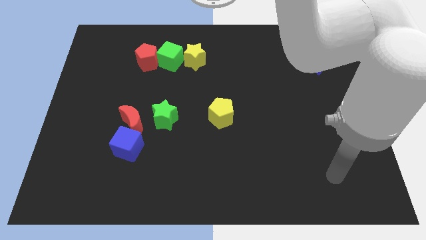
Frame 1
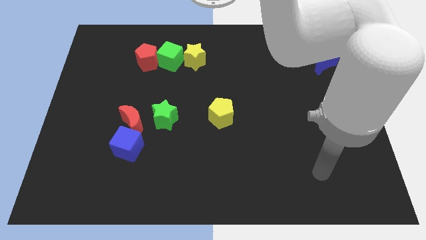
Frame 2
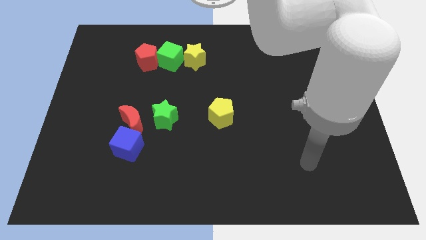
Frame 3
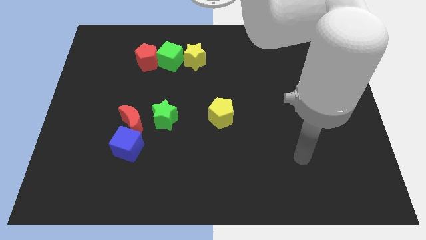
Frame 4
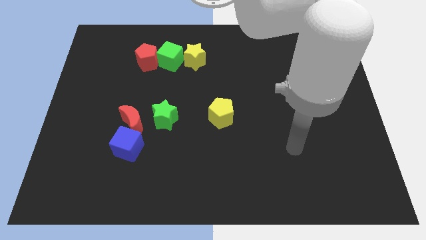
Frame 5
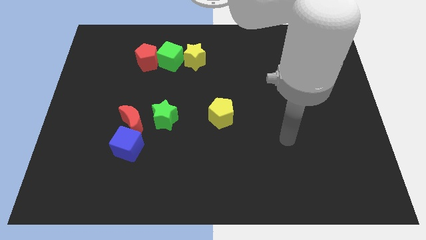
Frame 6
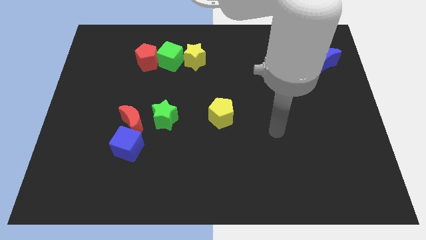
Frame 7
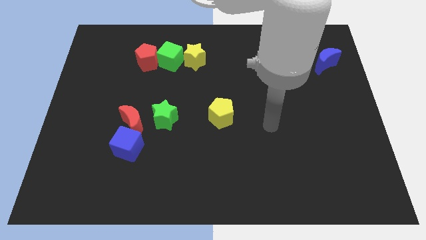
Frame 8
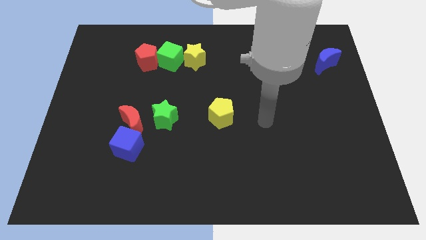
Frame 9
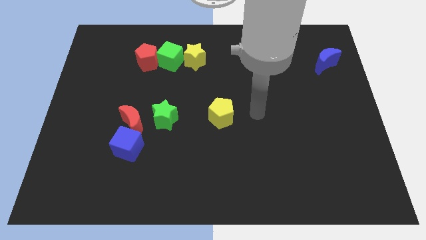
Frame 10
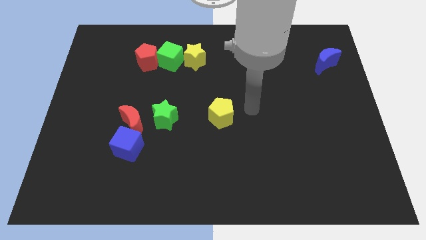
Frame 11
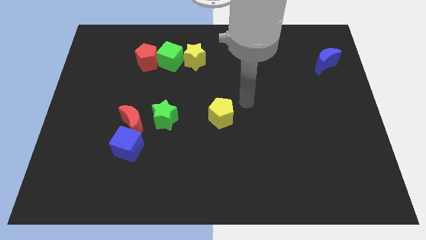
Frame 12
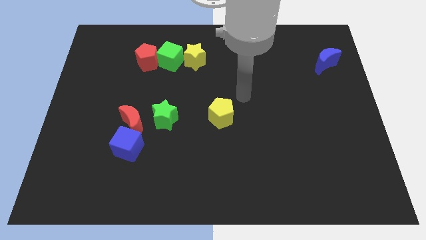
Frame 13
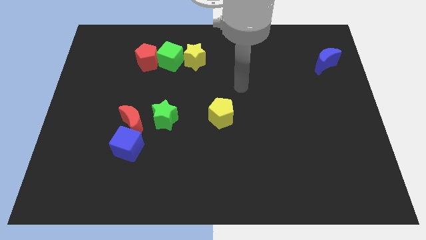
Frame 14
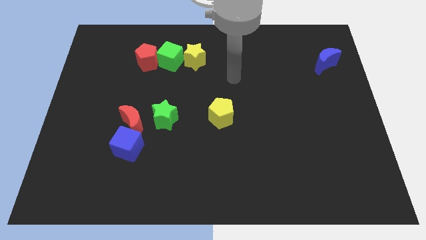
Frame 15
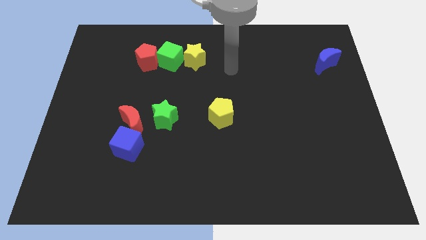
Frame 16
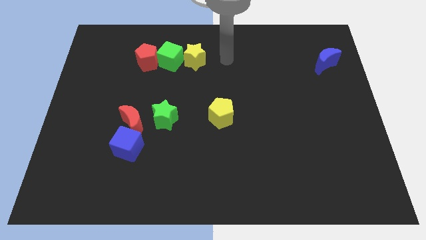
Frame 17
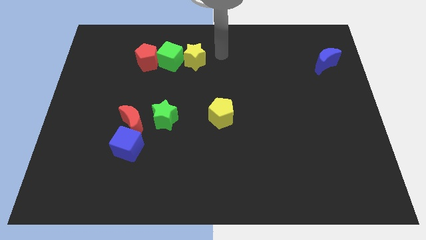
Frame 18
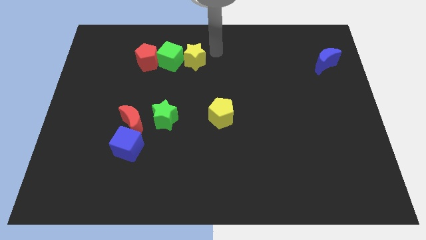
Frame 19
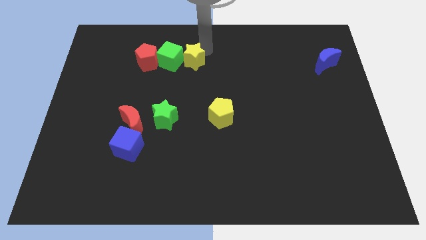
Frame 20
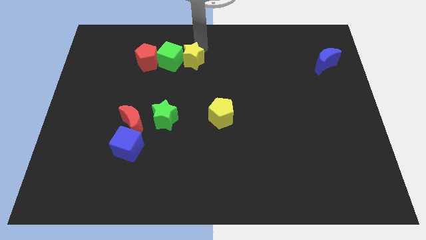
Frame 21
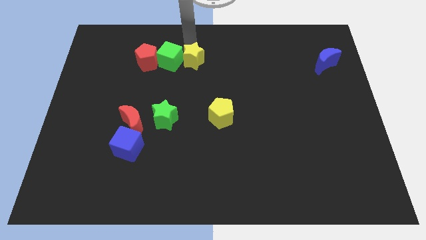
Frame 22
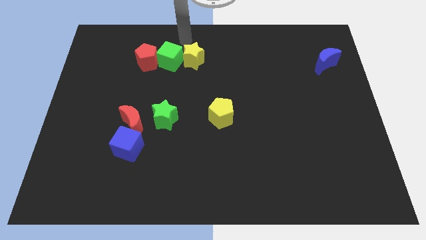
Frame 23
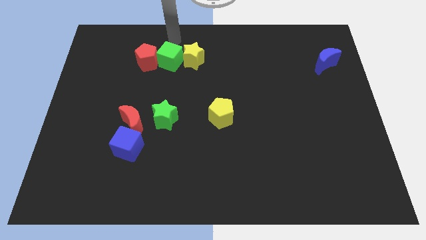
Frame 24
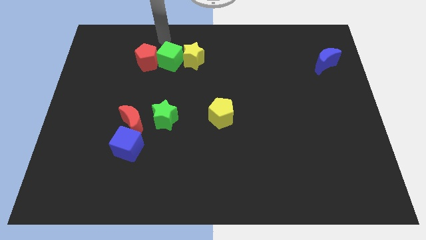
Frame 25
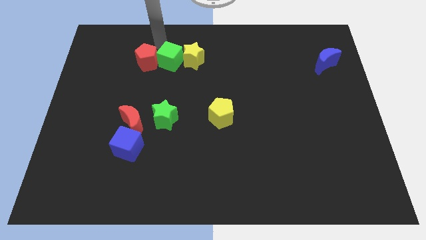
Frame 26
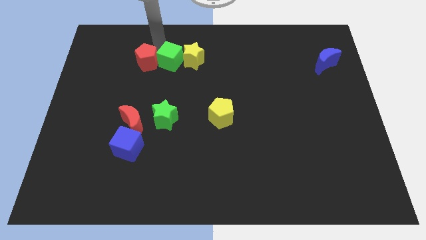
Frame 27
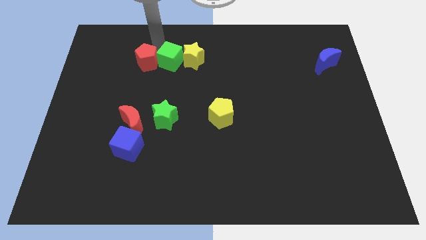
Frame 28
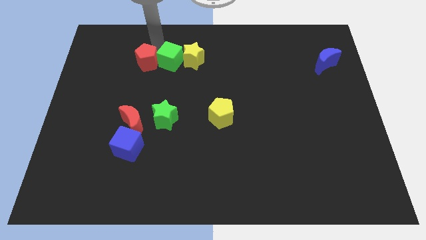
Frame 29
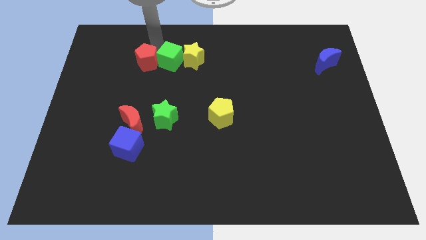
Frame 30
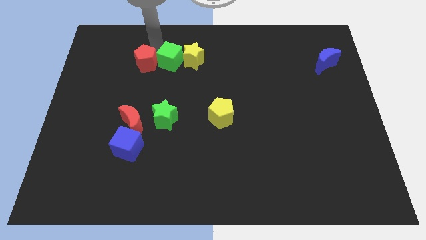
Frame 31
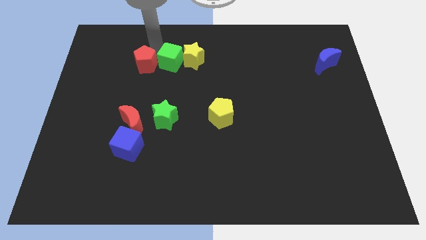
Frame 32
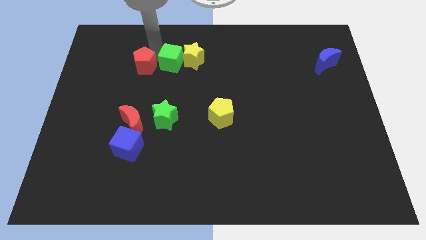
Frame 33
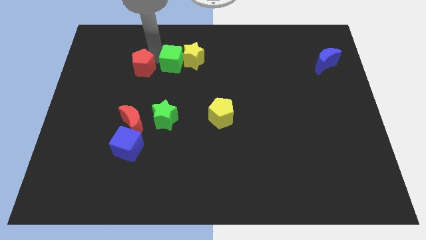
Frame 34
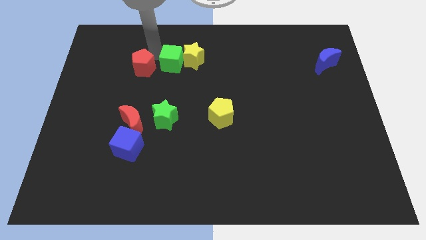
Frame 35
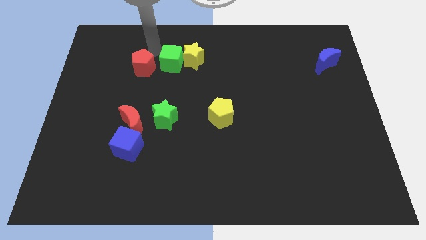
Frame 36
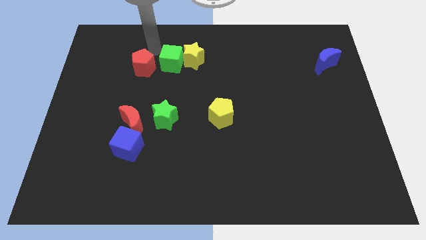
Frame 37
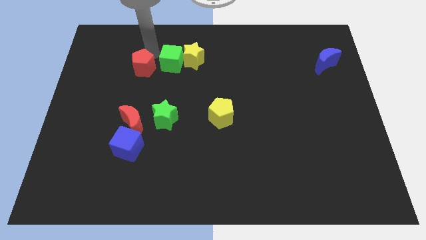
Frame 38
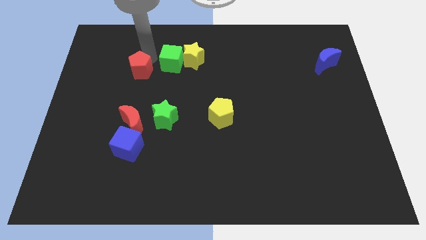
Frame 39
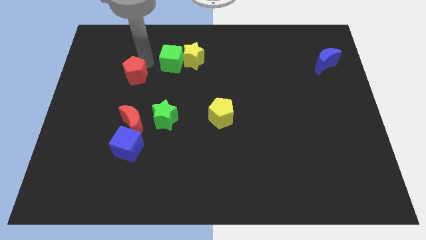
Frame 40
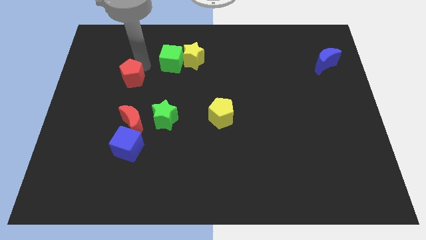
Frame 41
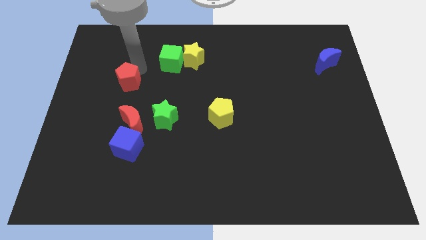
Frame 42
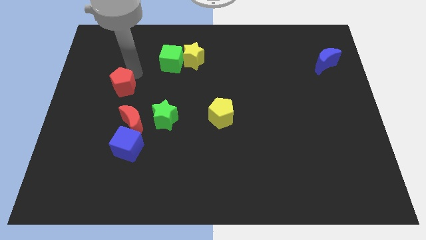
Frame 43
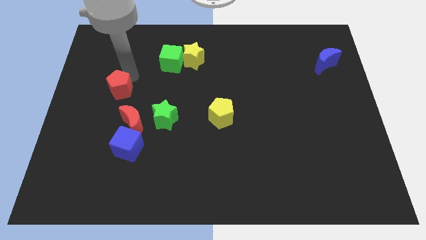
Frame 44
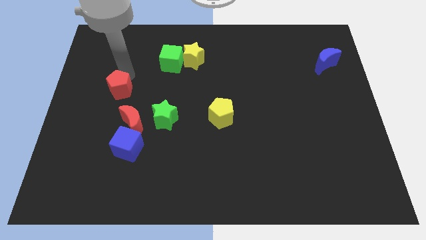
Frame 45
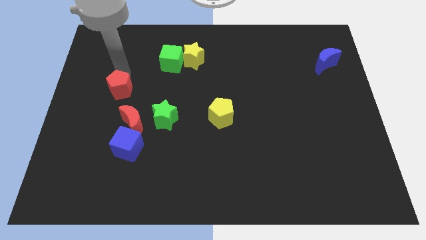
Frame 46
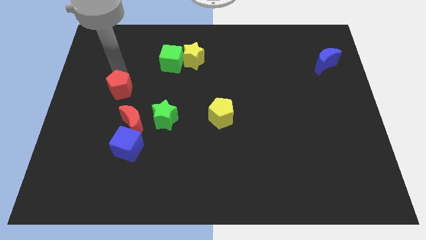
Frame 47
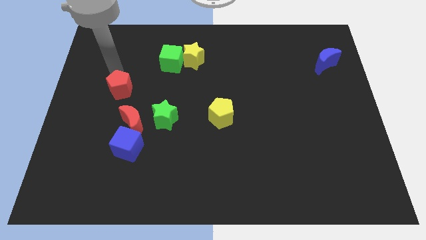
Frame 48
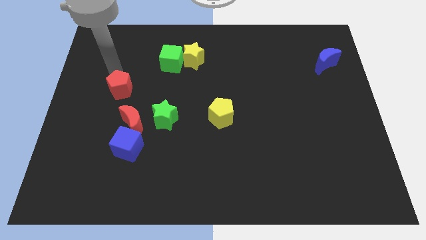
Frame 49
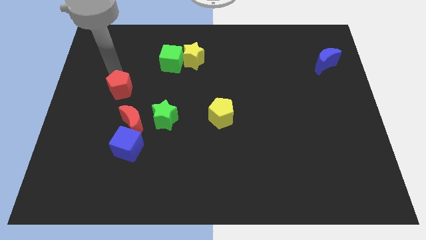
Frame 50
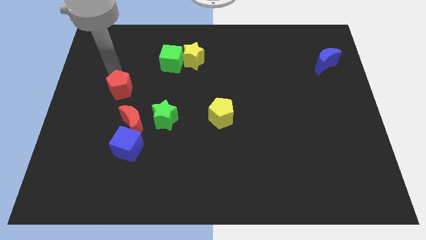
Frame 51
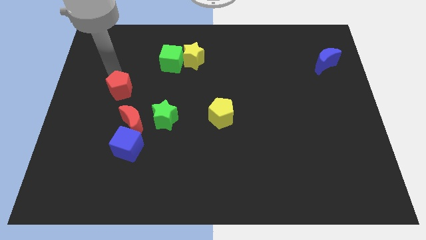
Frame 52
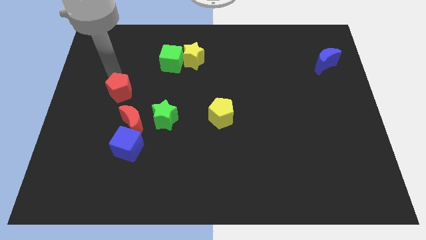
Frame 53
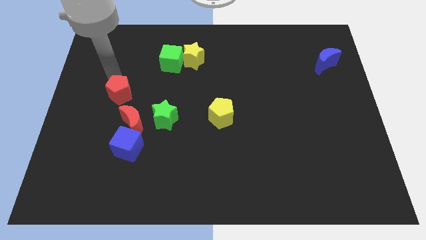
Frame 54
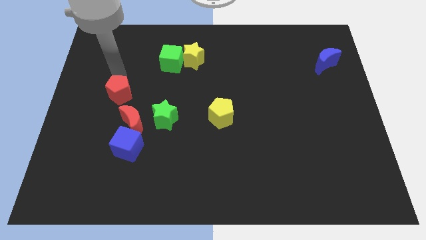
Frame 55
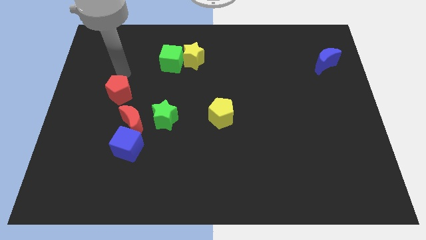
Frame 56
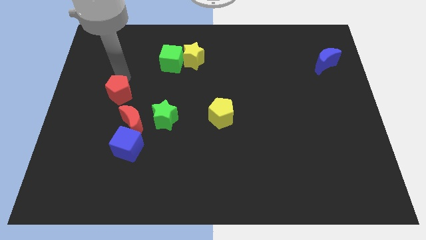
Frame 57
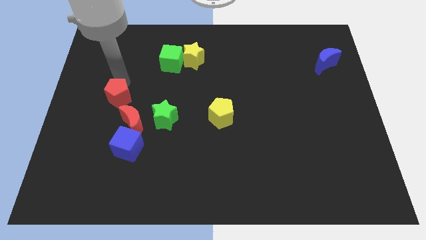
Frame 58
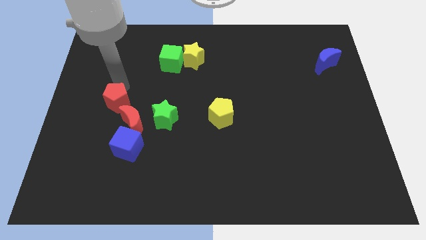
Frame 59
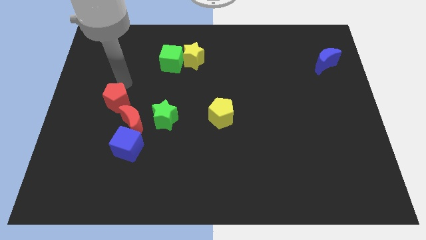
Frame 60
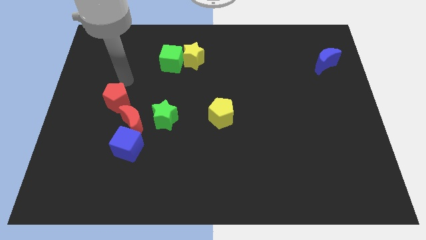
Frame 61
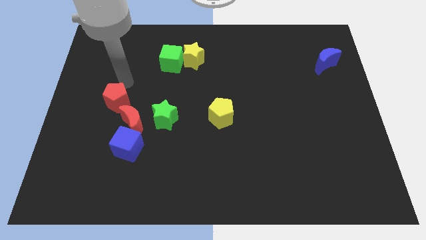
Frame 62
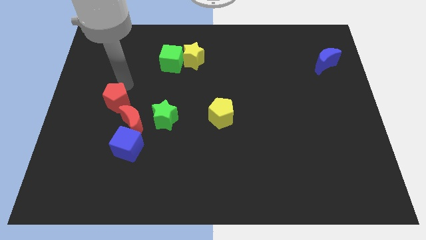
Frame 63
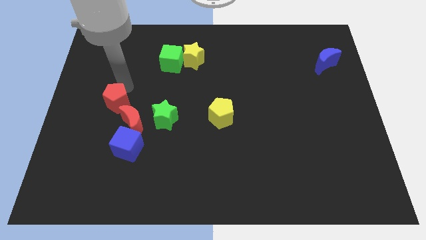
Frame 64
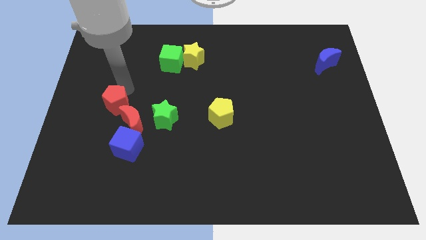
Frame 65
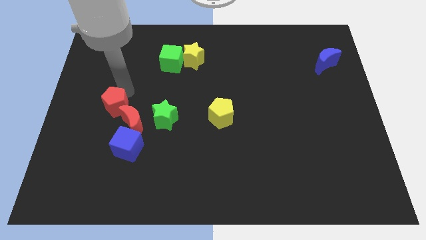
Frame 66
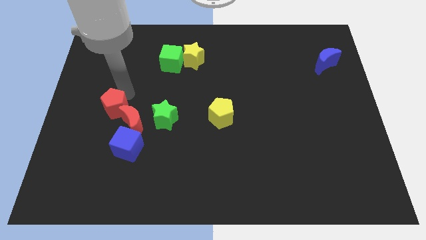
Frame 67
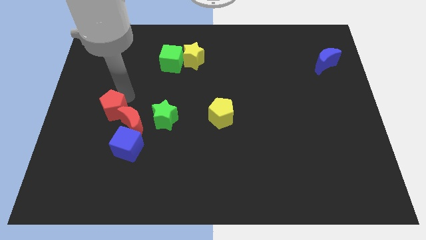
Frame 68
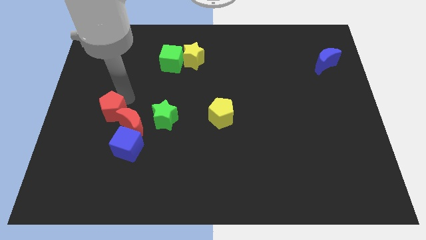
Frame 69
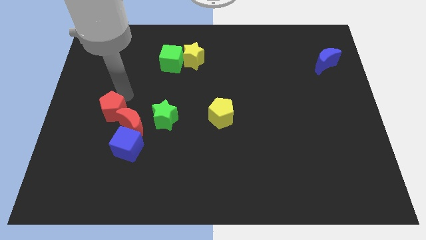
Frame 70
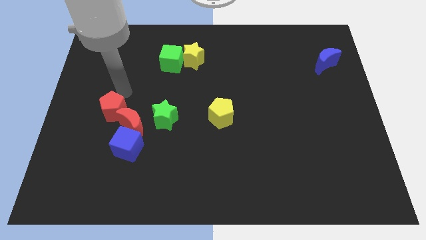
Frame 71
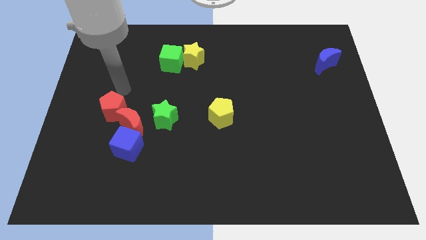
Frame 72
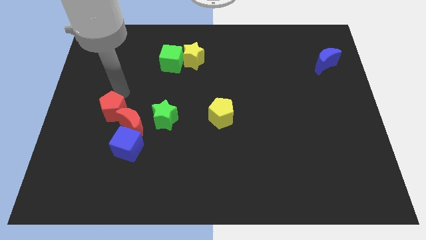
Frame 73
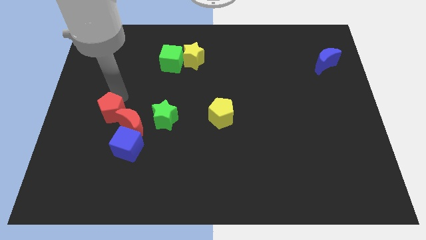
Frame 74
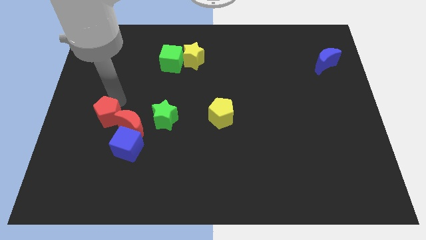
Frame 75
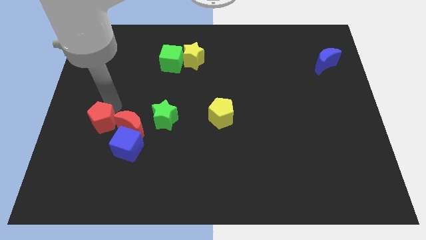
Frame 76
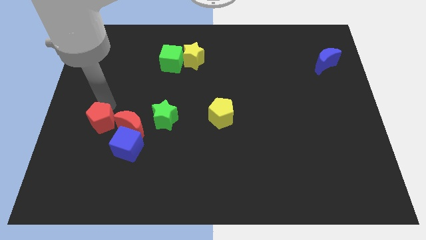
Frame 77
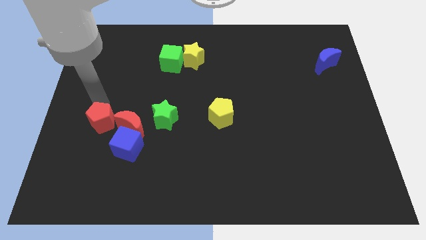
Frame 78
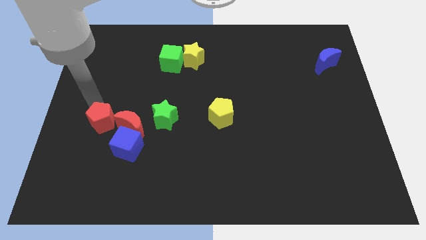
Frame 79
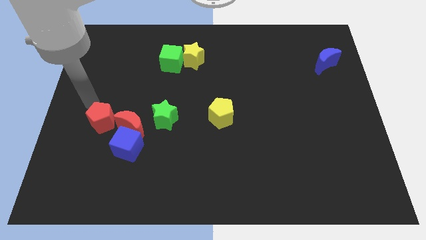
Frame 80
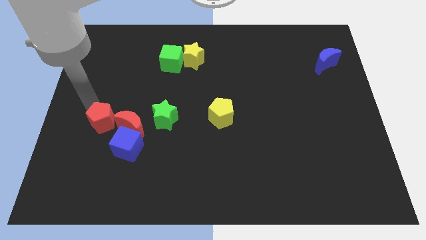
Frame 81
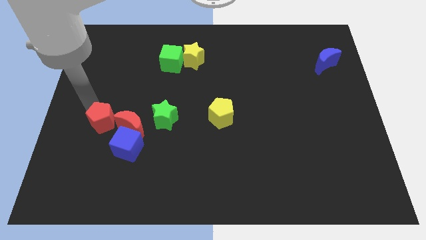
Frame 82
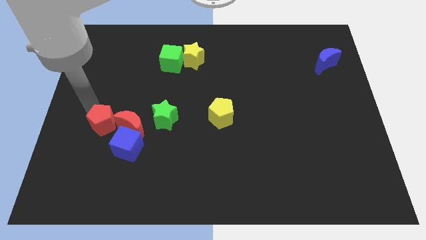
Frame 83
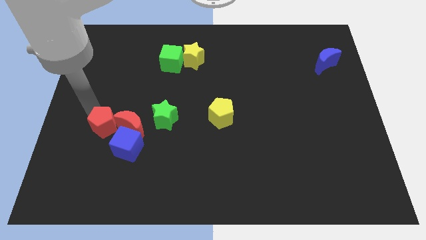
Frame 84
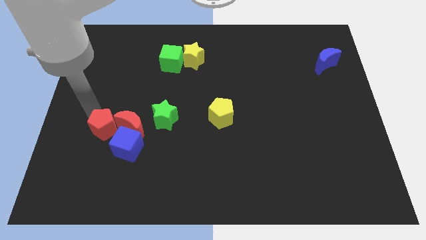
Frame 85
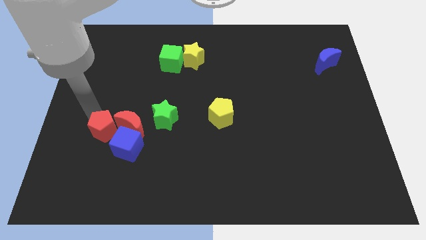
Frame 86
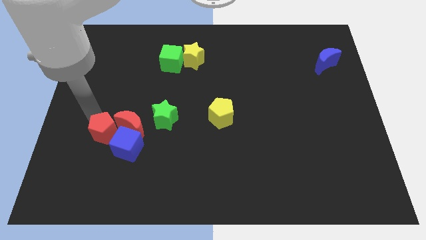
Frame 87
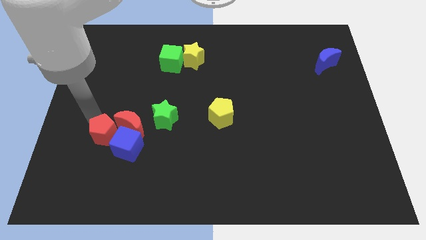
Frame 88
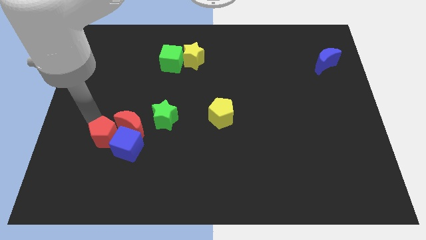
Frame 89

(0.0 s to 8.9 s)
push the red pentagon next to the blue cube
